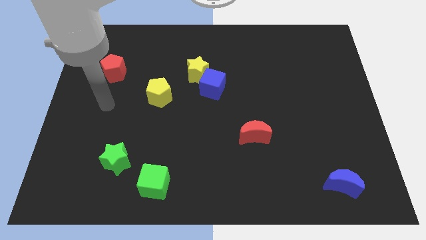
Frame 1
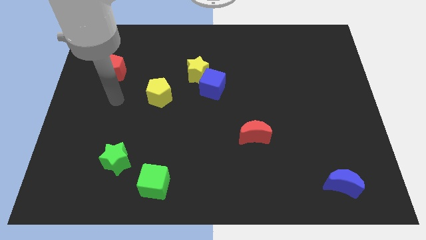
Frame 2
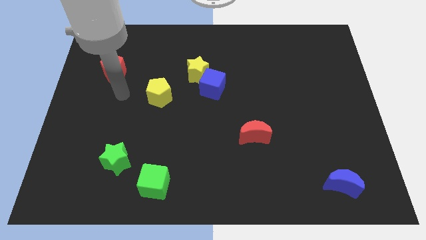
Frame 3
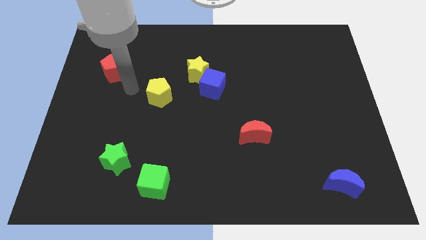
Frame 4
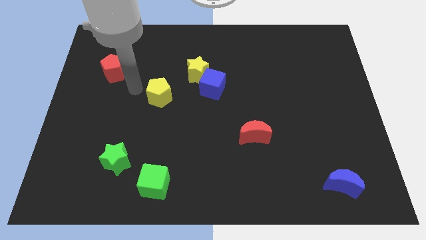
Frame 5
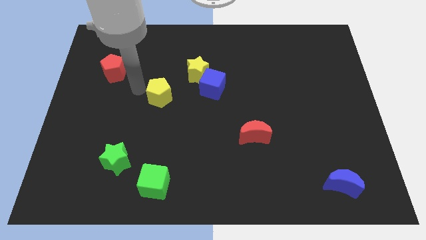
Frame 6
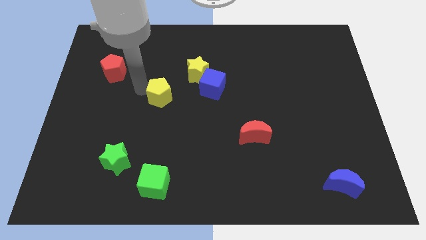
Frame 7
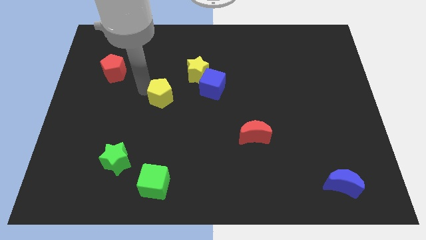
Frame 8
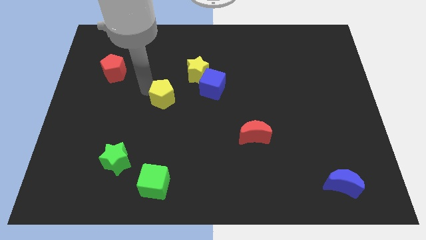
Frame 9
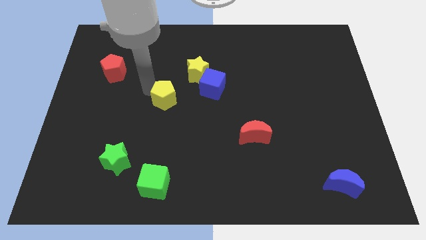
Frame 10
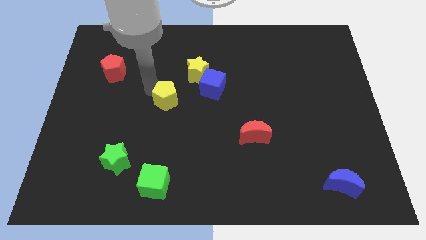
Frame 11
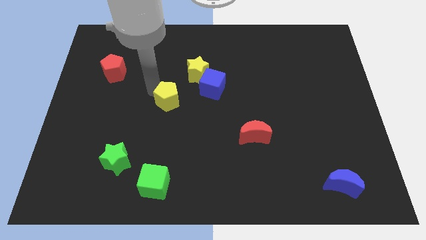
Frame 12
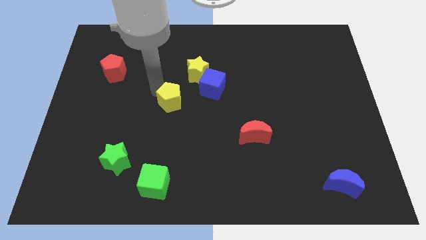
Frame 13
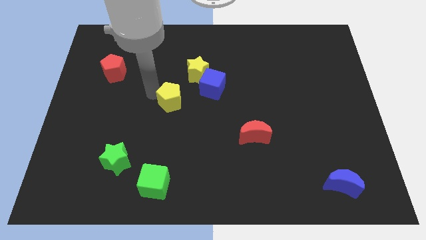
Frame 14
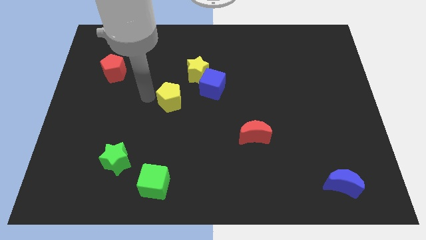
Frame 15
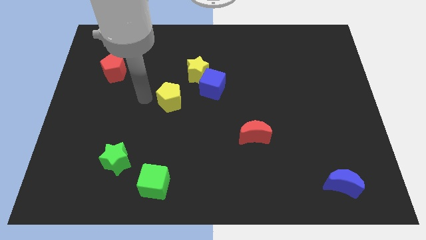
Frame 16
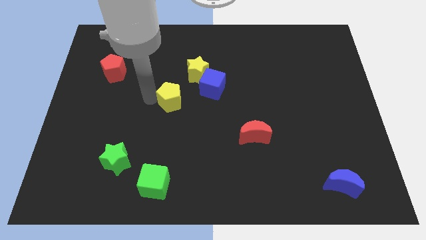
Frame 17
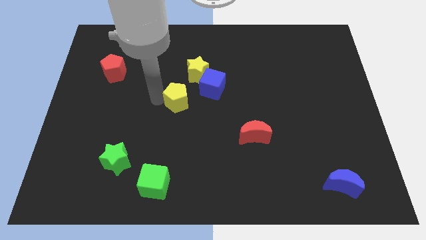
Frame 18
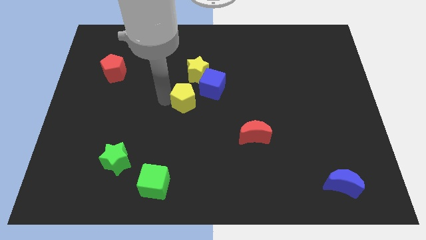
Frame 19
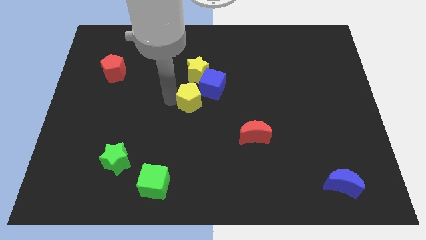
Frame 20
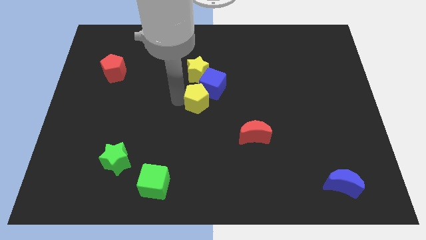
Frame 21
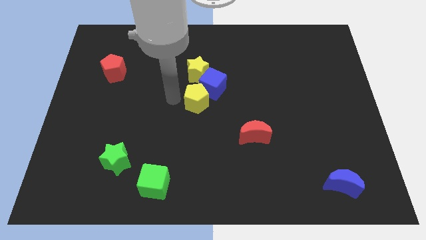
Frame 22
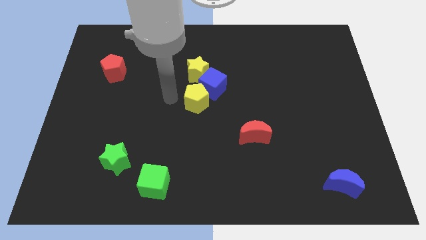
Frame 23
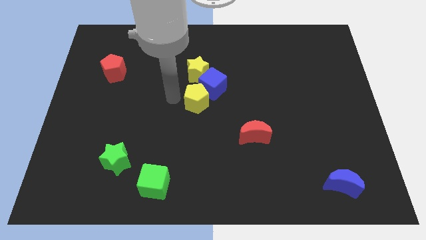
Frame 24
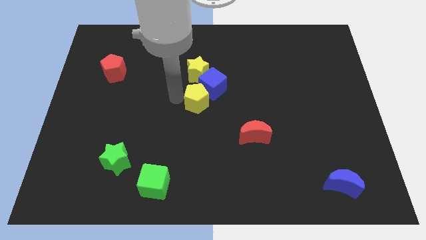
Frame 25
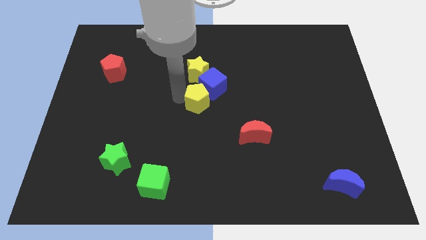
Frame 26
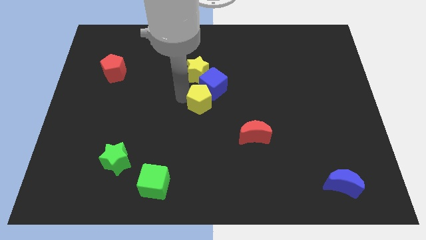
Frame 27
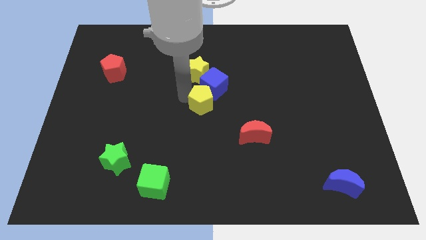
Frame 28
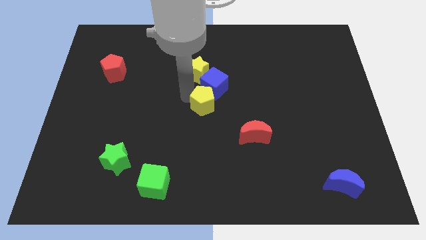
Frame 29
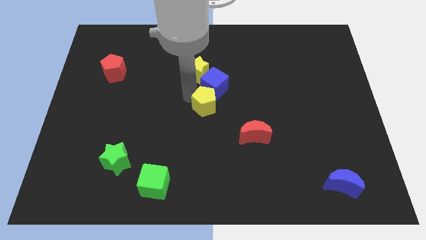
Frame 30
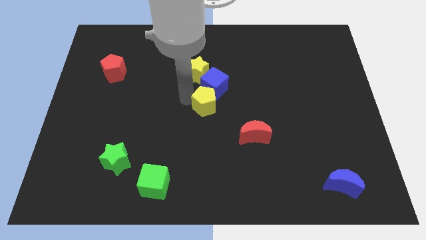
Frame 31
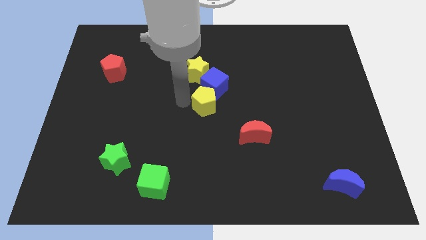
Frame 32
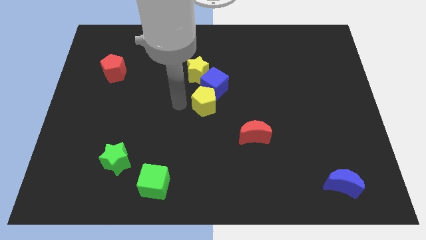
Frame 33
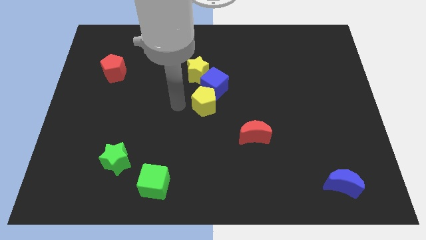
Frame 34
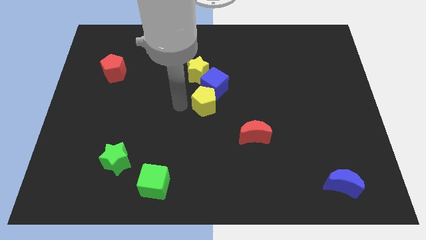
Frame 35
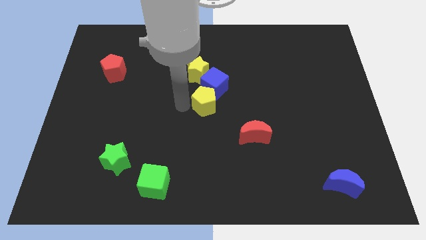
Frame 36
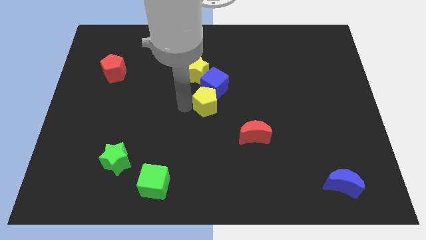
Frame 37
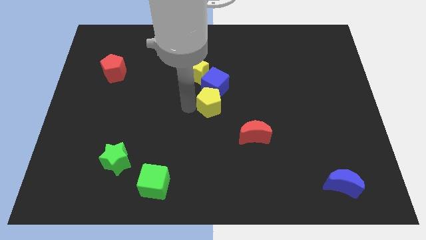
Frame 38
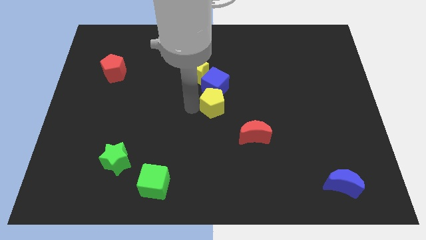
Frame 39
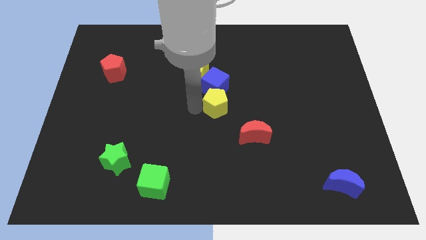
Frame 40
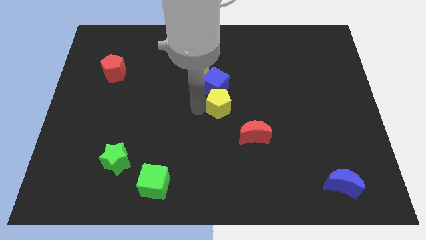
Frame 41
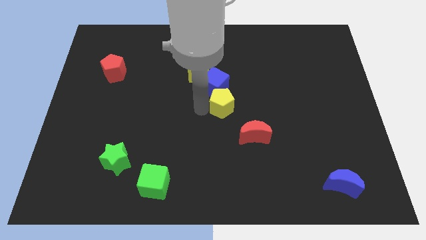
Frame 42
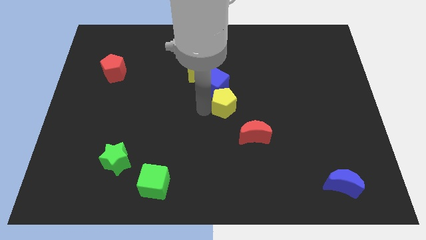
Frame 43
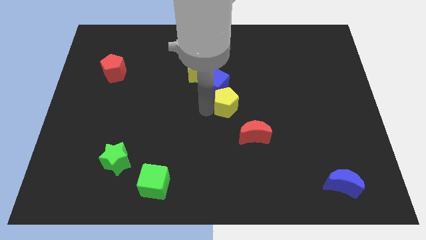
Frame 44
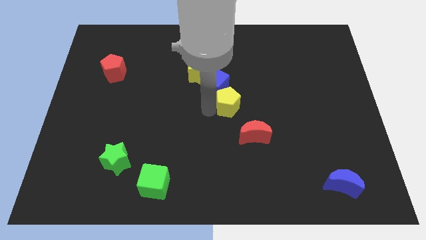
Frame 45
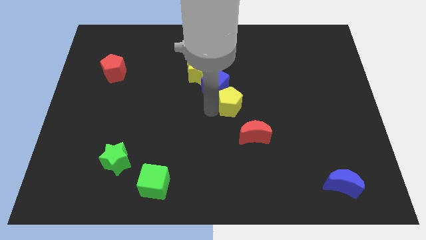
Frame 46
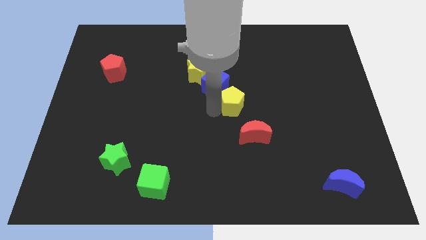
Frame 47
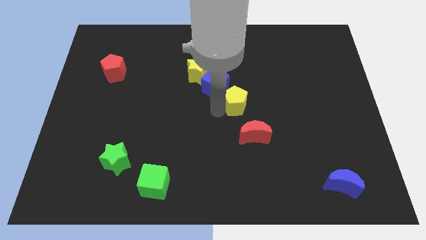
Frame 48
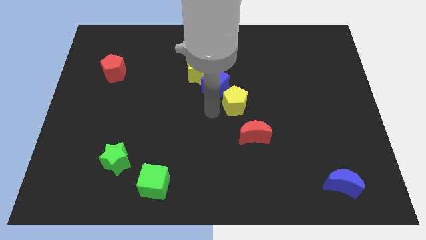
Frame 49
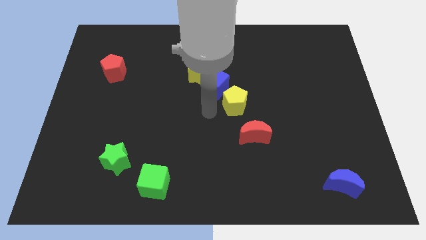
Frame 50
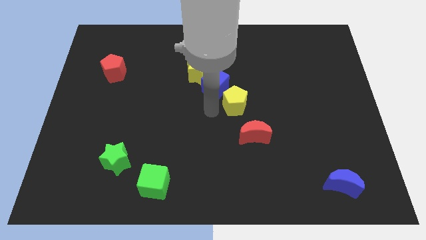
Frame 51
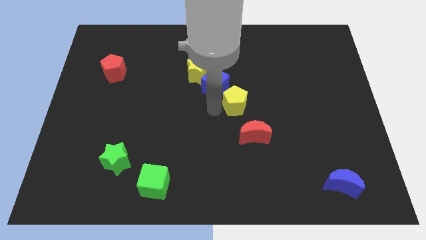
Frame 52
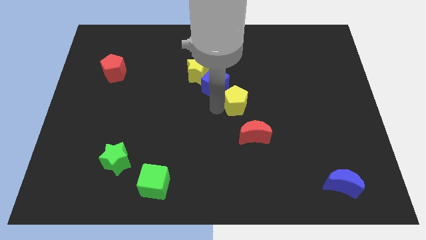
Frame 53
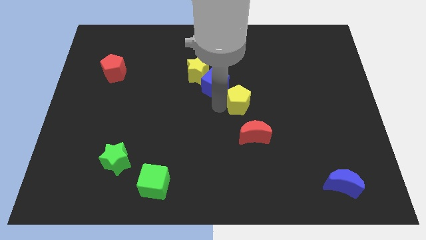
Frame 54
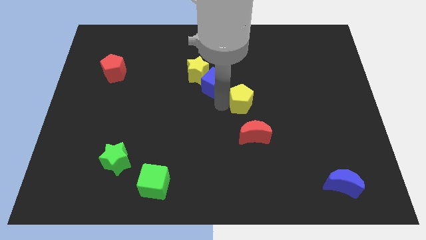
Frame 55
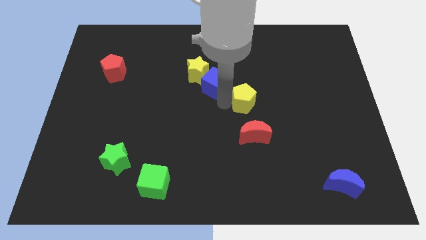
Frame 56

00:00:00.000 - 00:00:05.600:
slide the yellow pentagon right

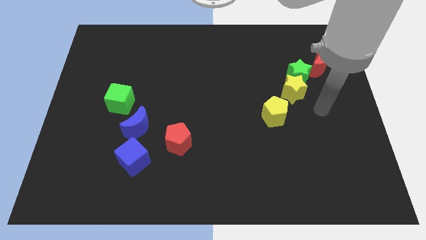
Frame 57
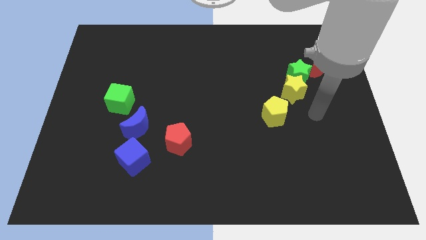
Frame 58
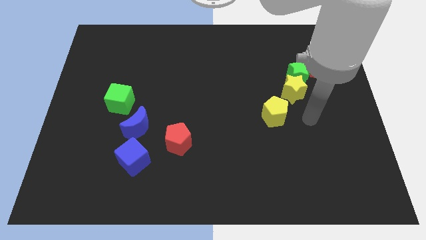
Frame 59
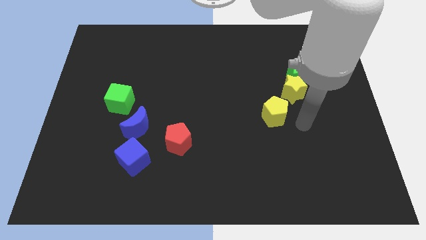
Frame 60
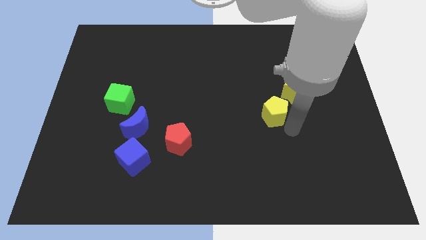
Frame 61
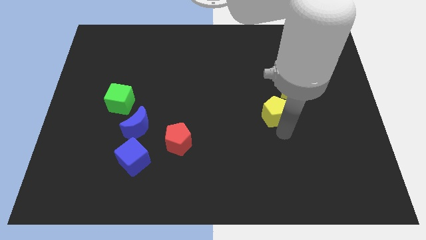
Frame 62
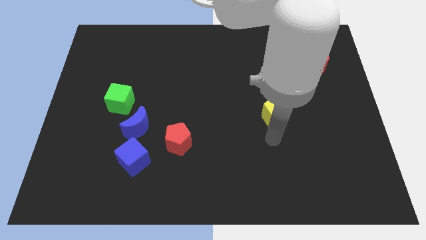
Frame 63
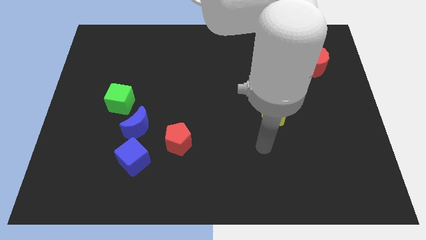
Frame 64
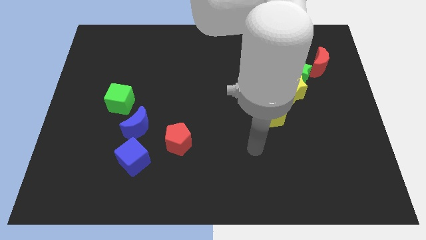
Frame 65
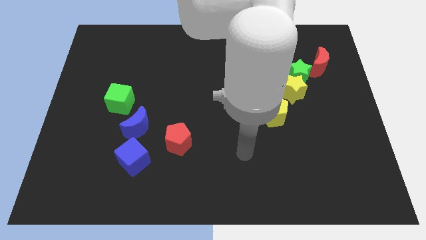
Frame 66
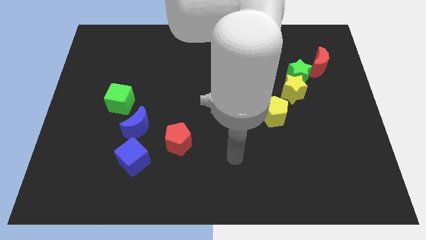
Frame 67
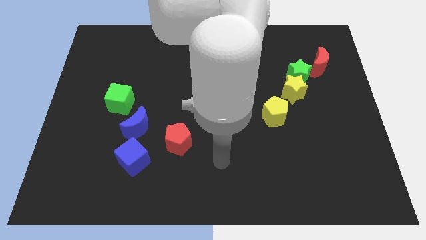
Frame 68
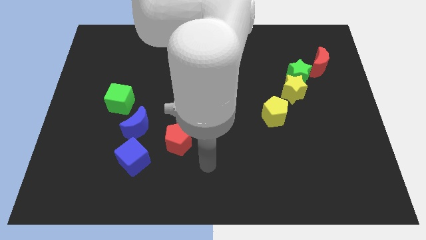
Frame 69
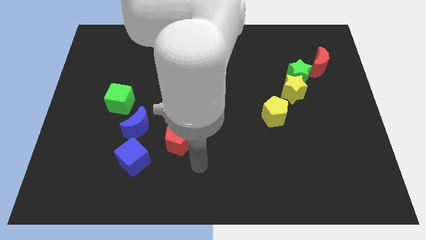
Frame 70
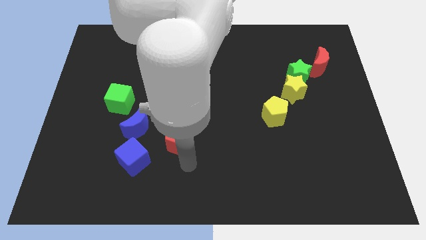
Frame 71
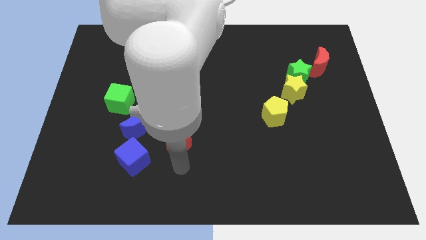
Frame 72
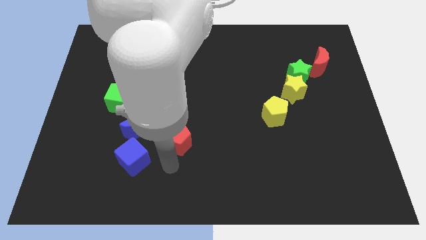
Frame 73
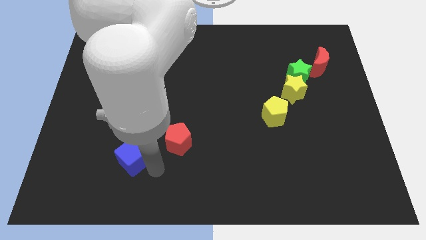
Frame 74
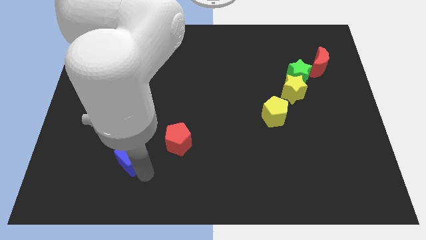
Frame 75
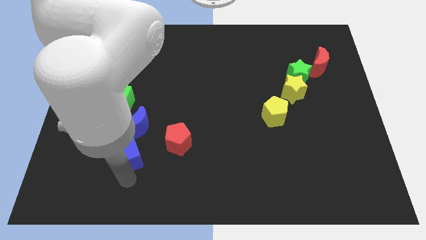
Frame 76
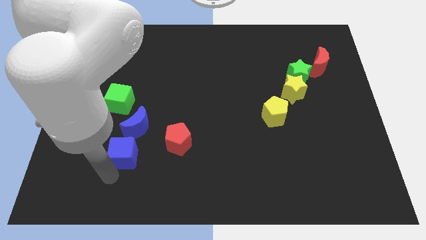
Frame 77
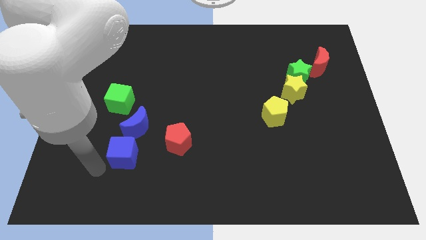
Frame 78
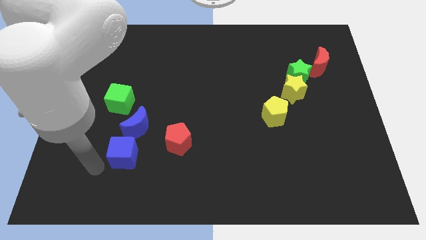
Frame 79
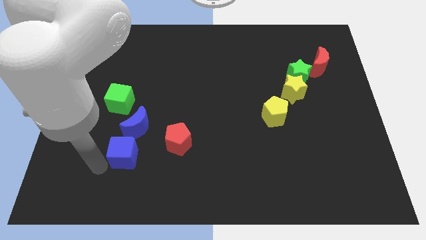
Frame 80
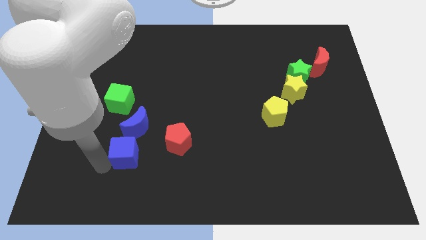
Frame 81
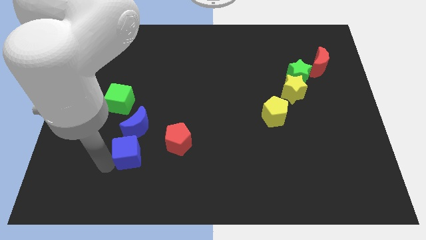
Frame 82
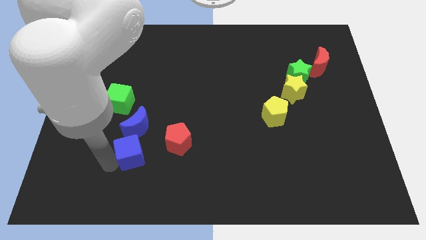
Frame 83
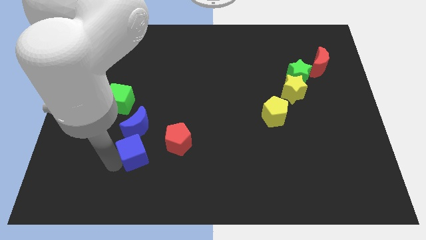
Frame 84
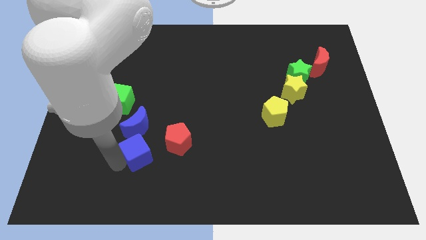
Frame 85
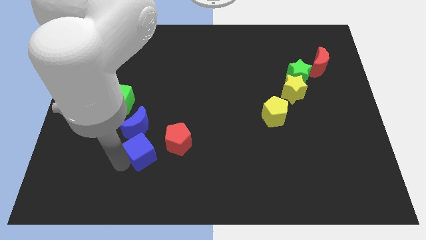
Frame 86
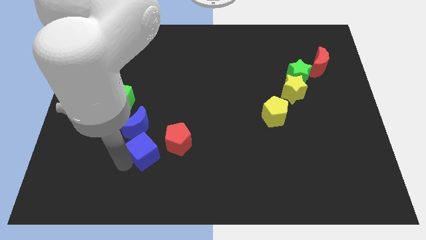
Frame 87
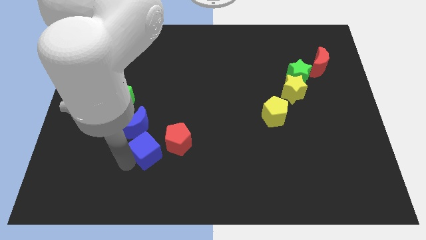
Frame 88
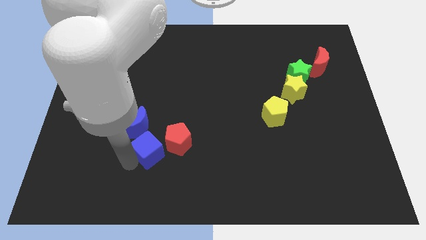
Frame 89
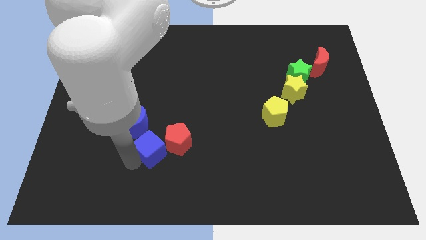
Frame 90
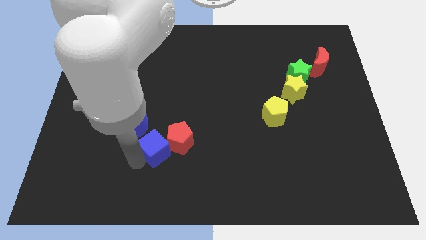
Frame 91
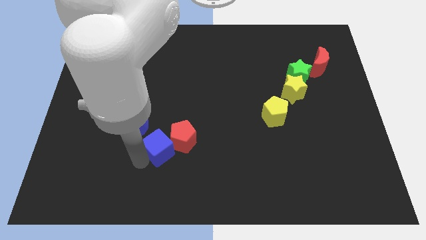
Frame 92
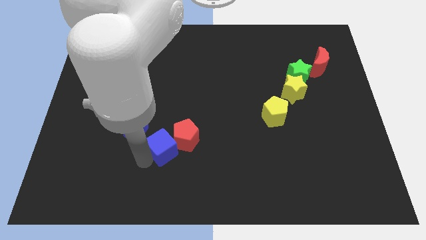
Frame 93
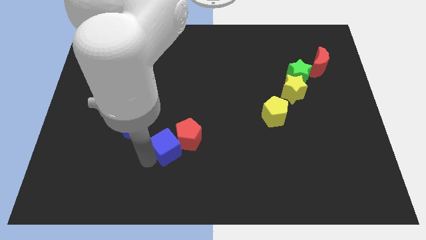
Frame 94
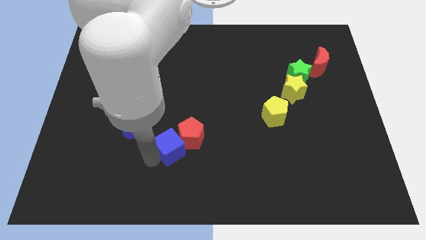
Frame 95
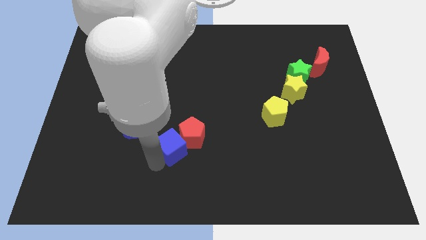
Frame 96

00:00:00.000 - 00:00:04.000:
move the blue cube upwards and to the right somewhat
